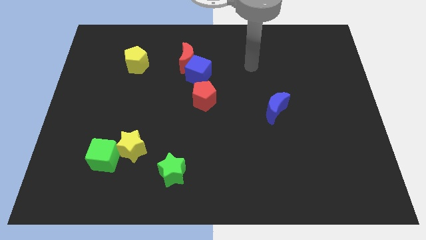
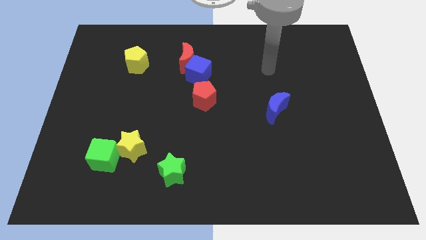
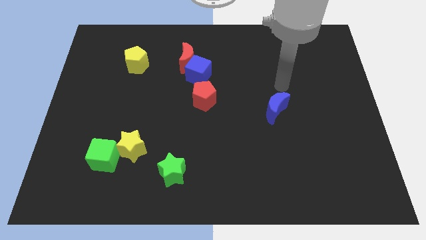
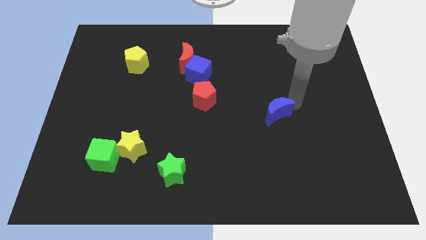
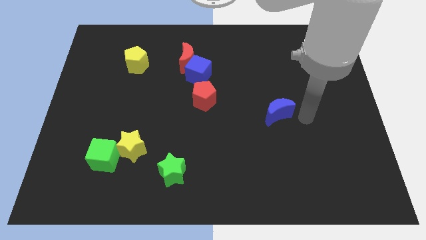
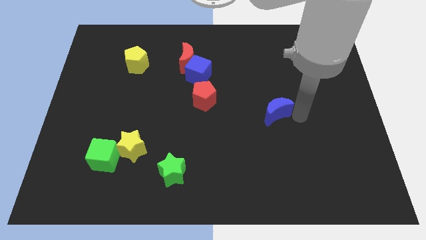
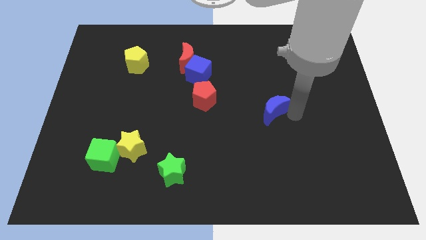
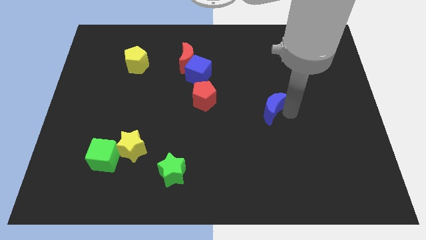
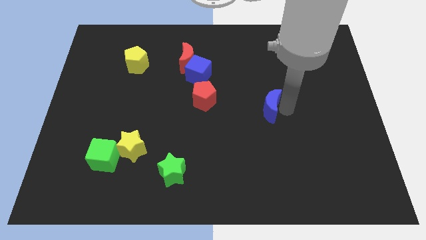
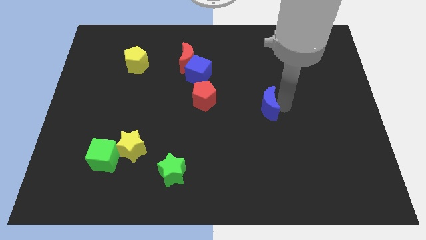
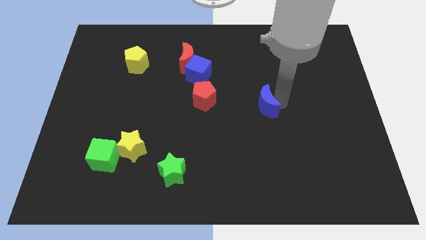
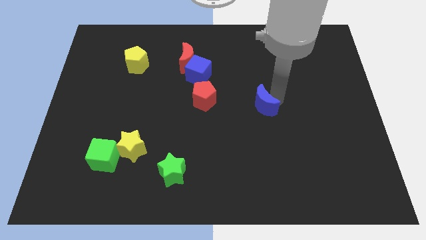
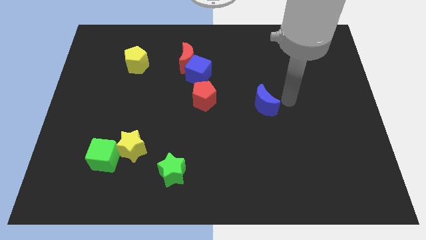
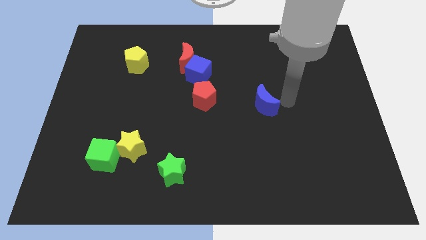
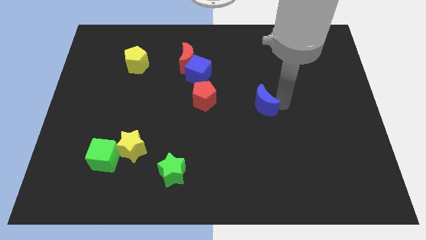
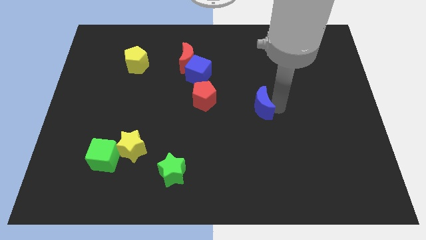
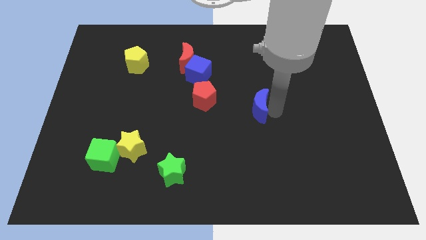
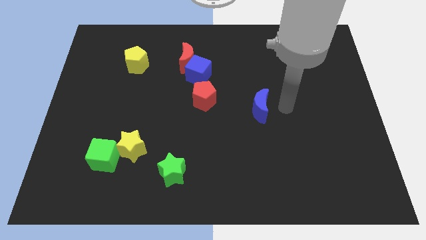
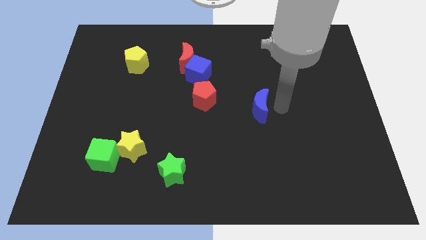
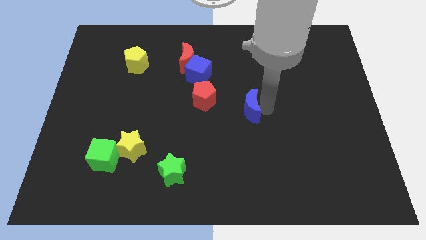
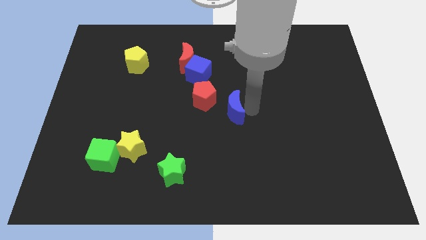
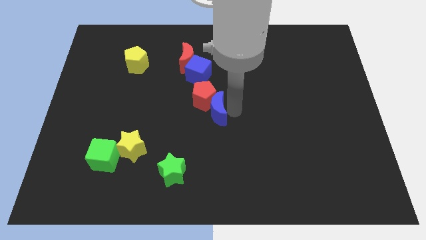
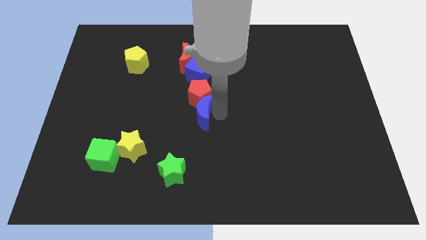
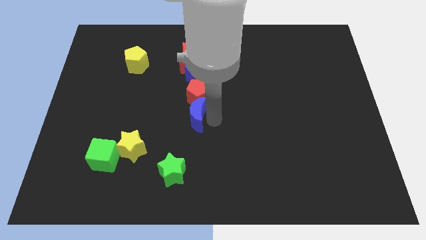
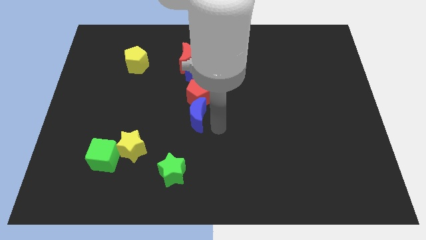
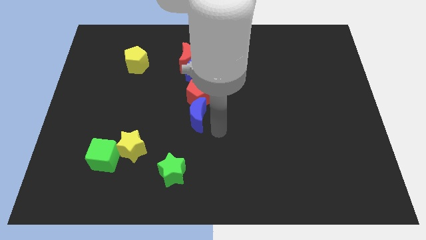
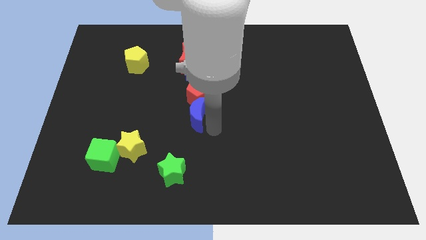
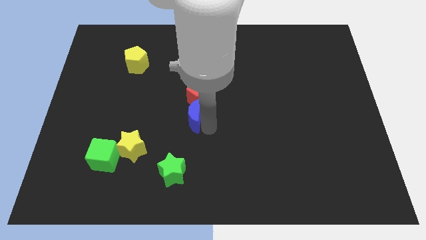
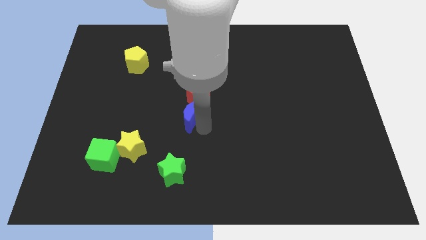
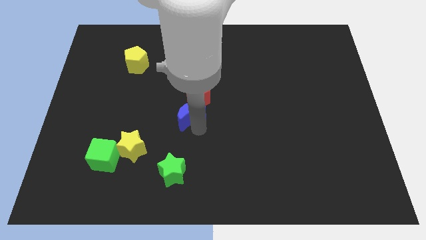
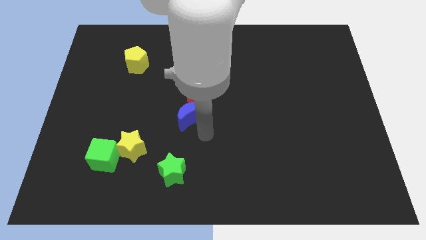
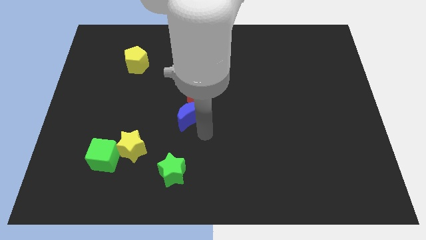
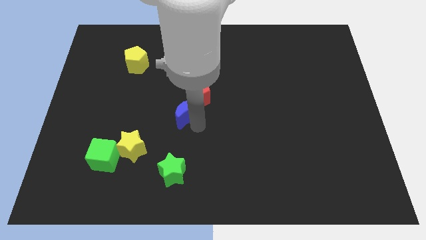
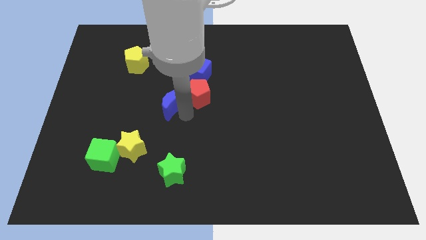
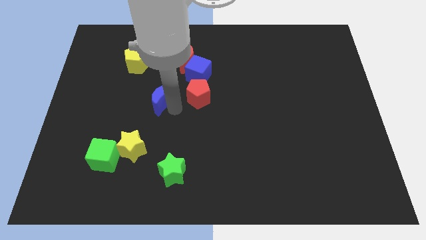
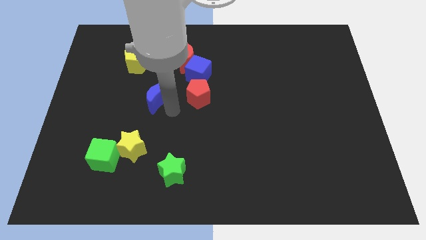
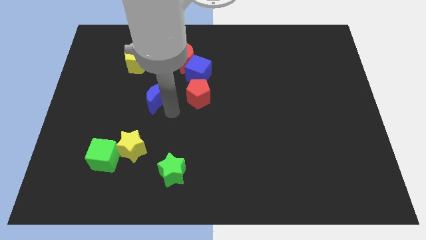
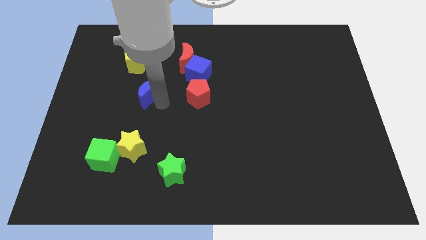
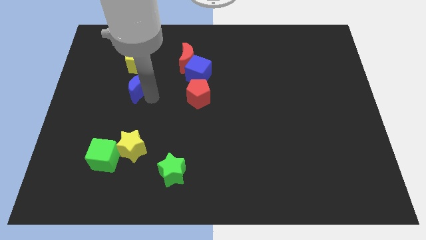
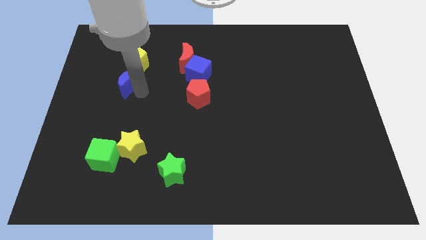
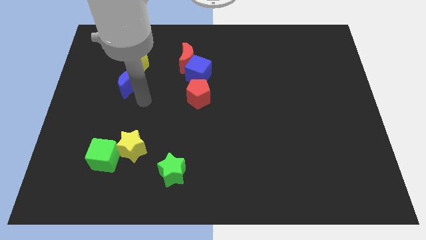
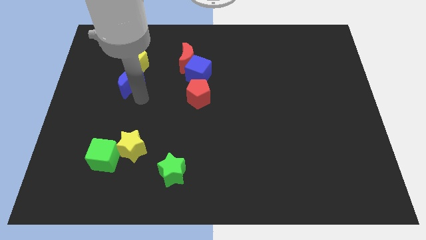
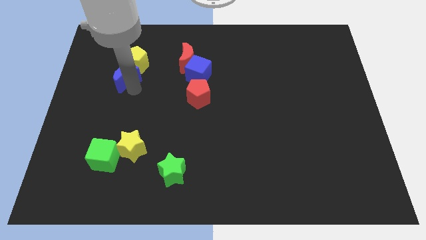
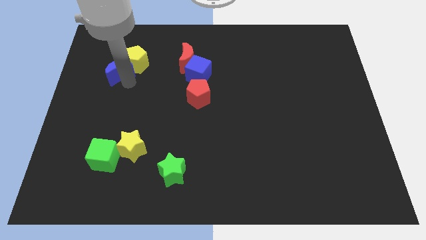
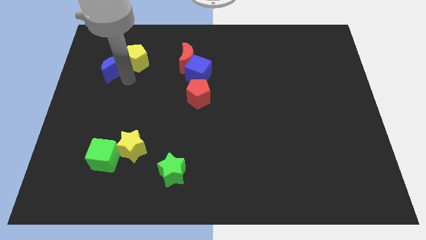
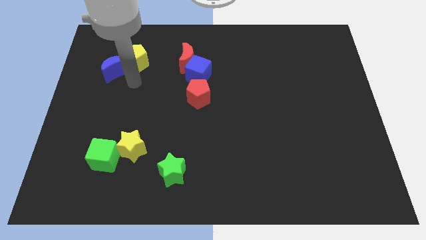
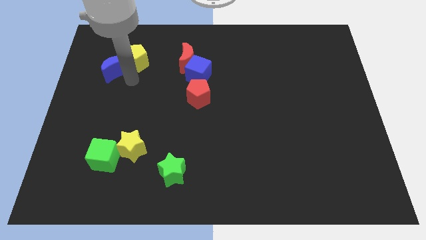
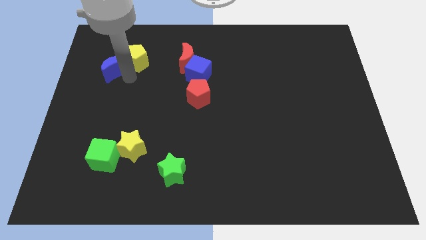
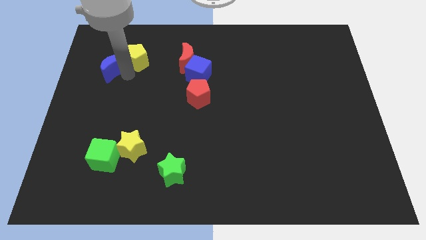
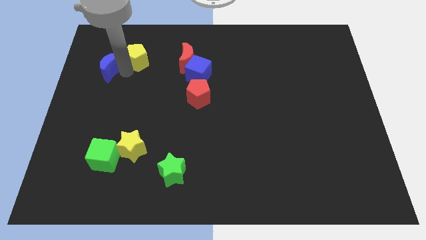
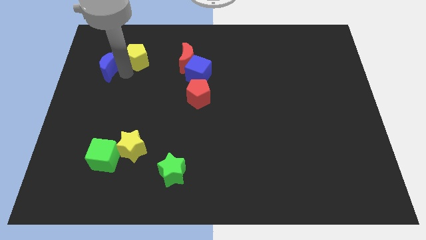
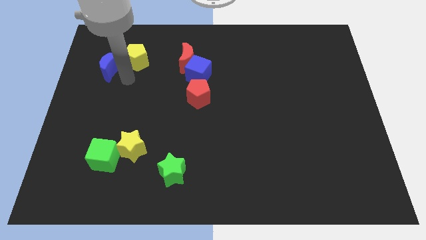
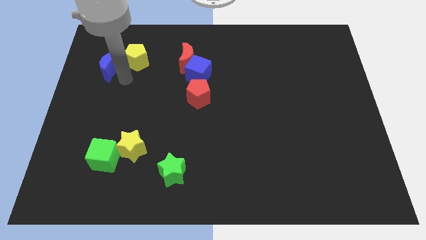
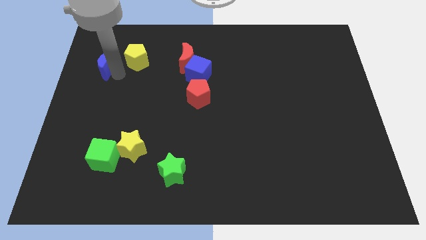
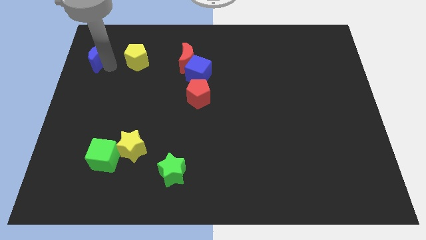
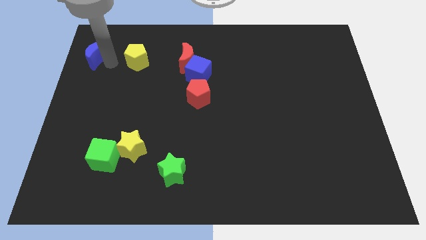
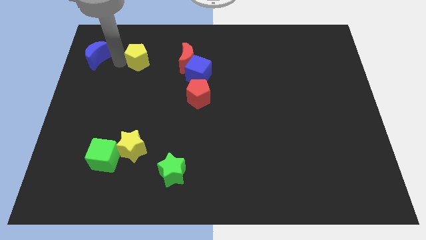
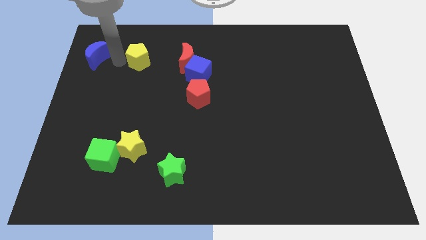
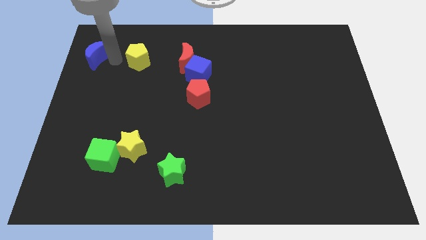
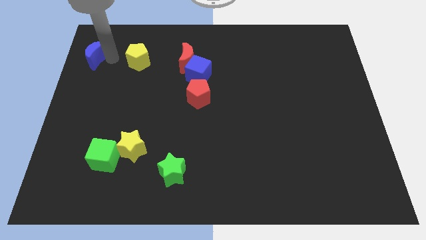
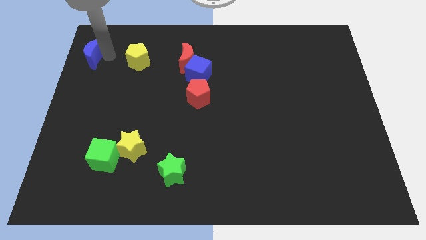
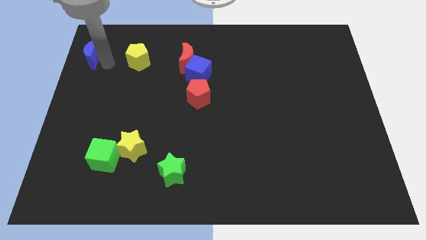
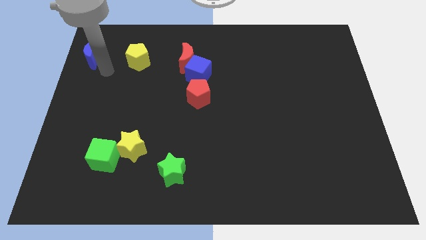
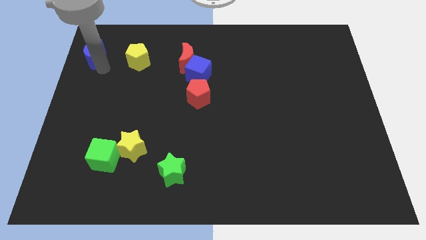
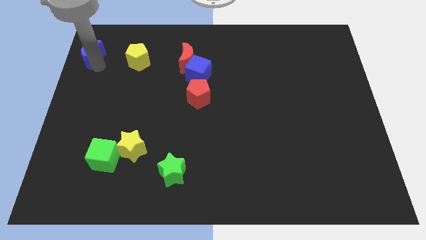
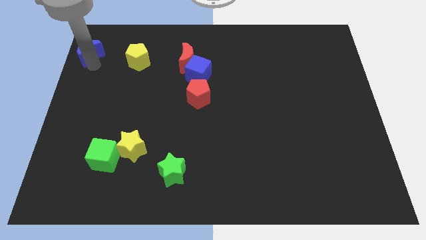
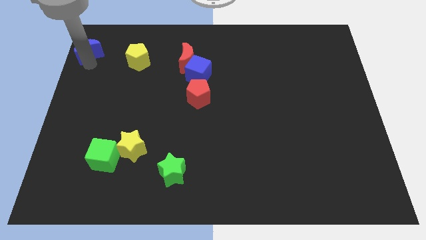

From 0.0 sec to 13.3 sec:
put the blue moon to the top left corner
